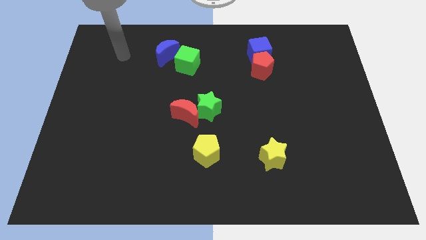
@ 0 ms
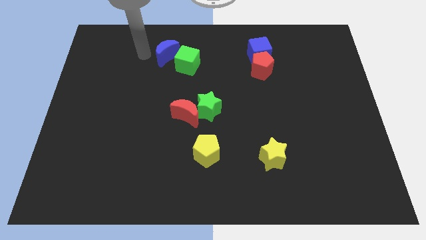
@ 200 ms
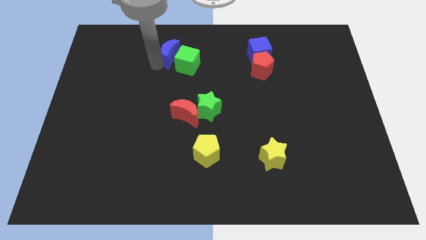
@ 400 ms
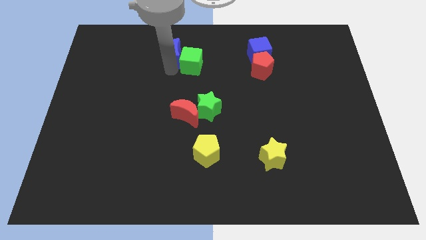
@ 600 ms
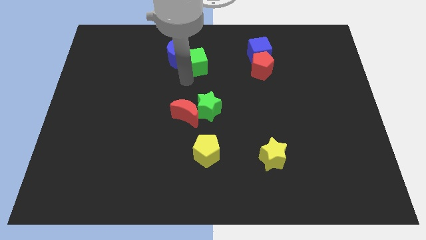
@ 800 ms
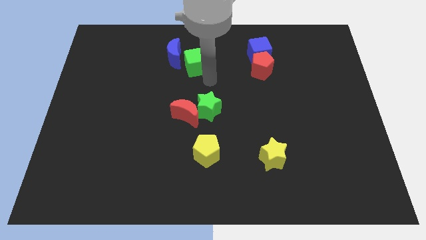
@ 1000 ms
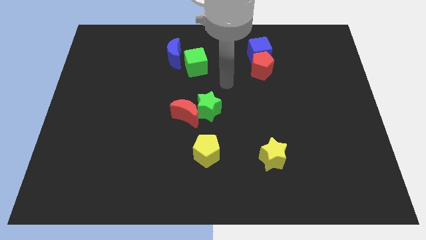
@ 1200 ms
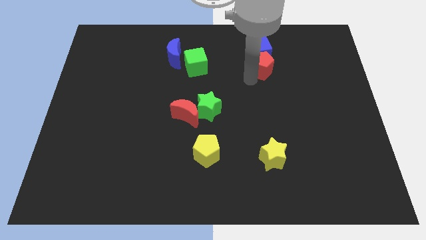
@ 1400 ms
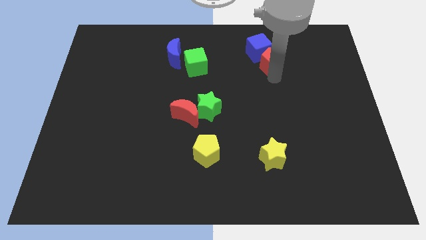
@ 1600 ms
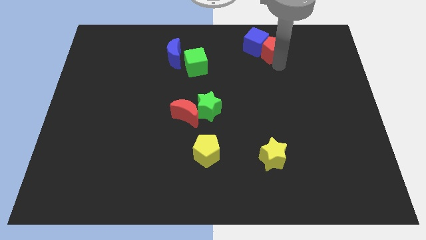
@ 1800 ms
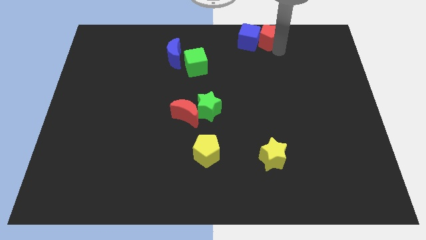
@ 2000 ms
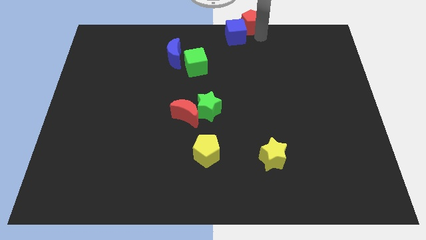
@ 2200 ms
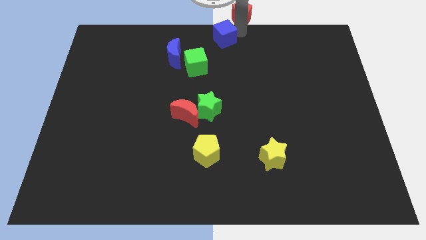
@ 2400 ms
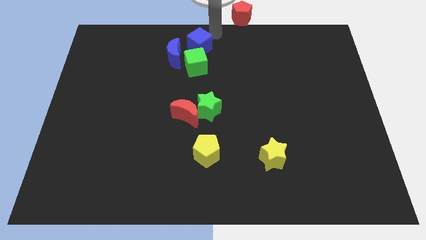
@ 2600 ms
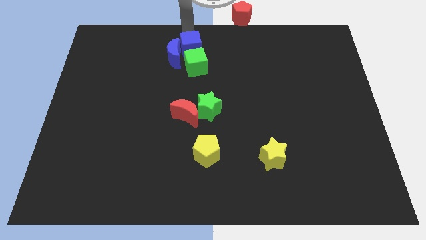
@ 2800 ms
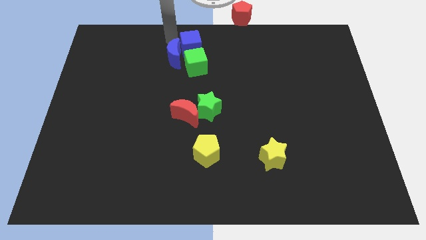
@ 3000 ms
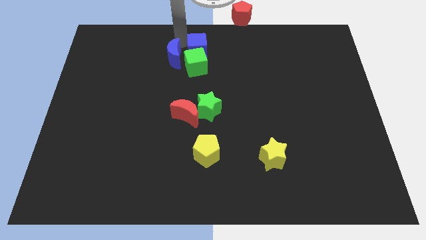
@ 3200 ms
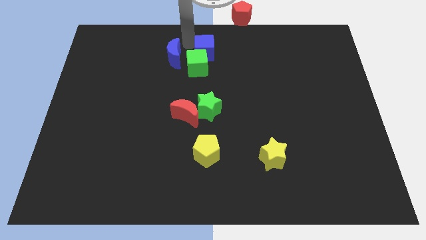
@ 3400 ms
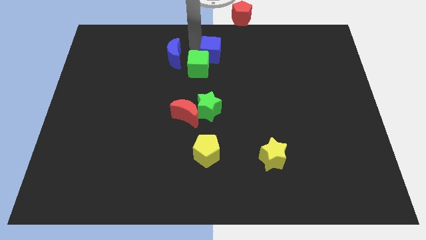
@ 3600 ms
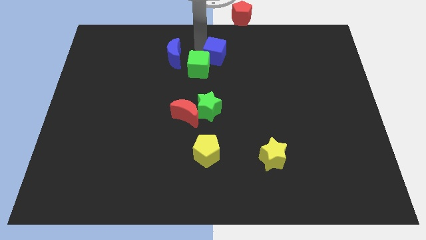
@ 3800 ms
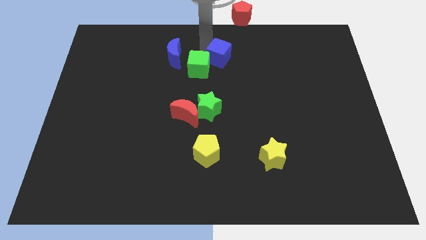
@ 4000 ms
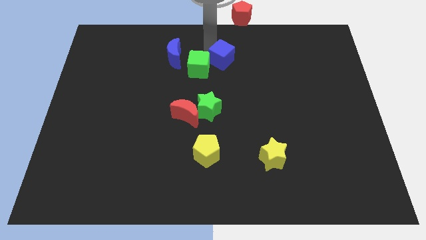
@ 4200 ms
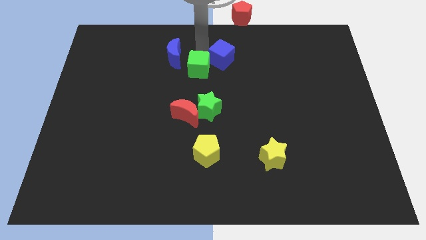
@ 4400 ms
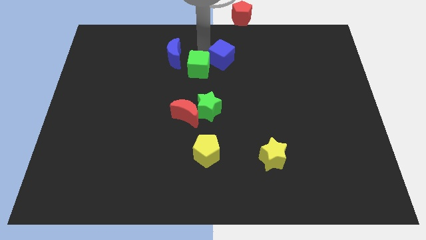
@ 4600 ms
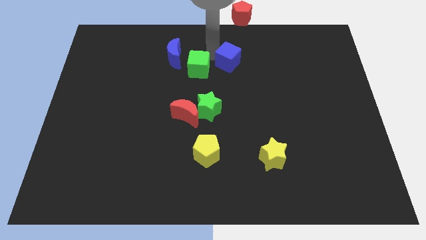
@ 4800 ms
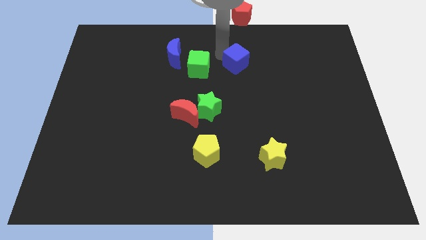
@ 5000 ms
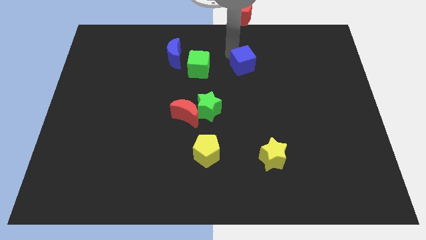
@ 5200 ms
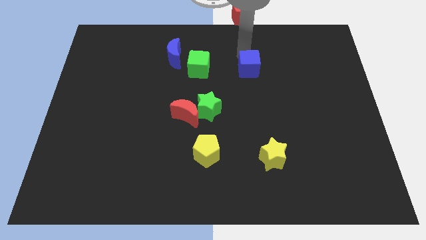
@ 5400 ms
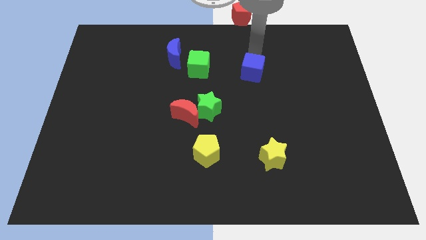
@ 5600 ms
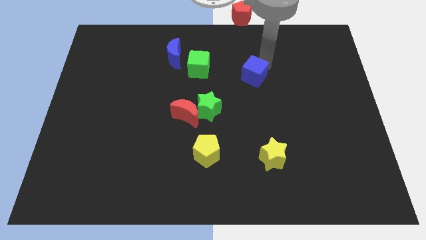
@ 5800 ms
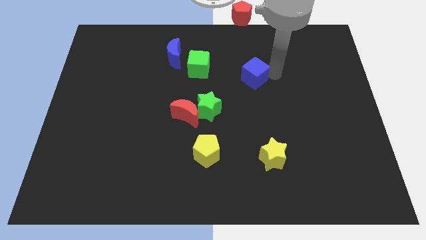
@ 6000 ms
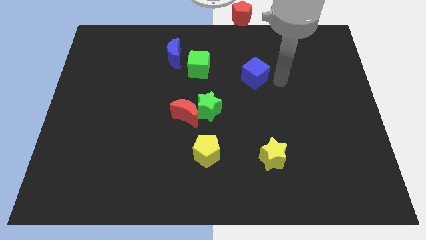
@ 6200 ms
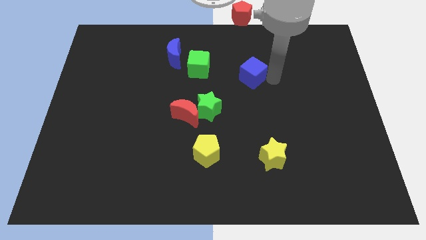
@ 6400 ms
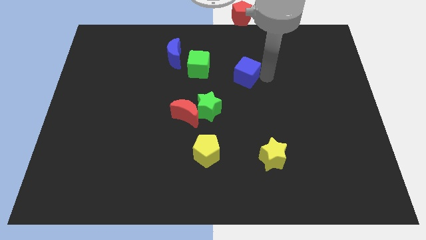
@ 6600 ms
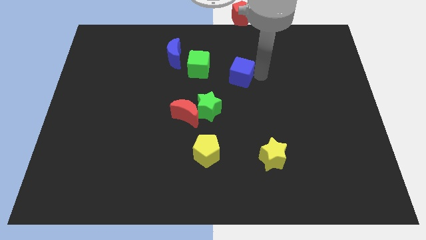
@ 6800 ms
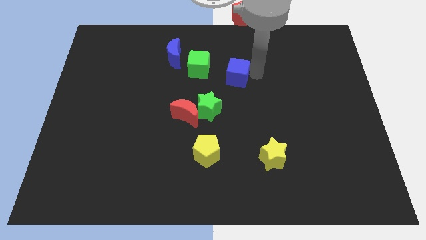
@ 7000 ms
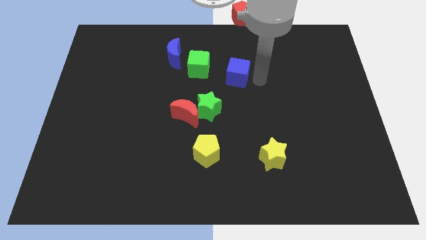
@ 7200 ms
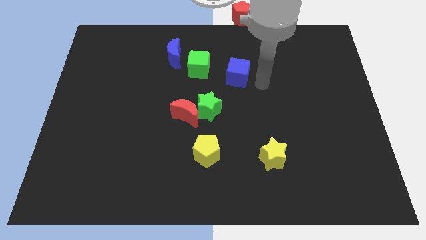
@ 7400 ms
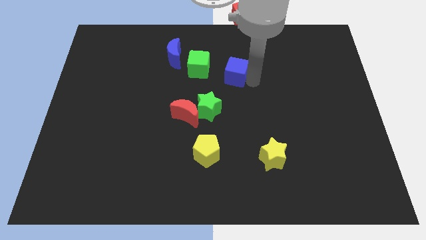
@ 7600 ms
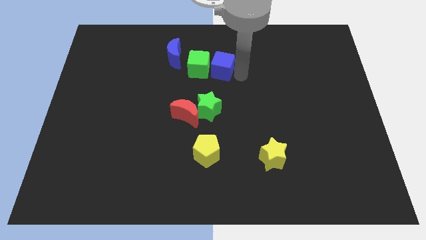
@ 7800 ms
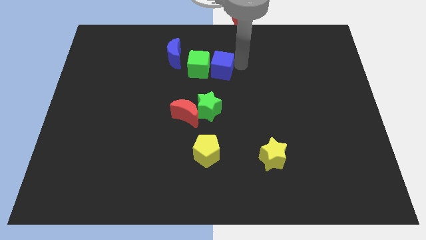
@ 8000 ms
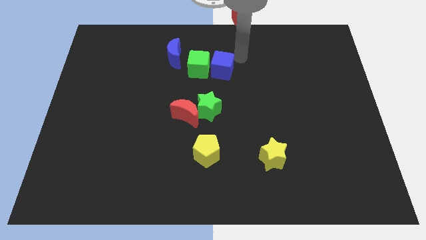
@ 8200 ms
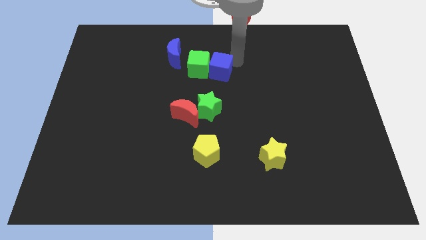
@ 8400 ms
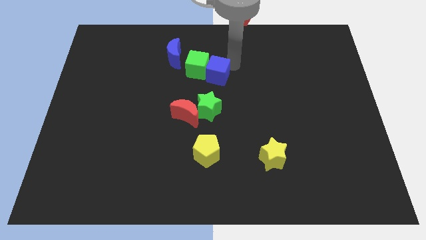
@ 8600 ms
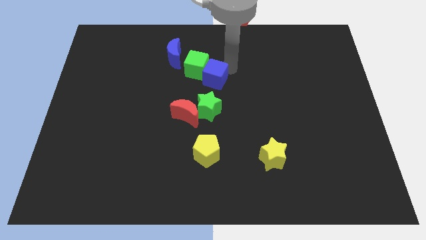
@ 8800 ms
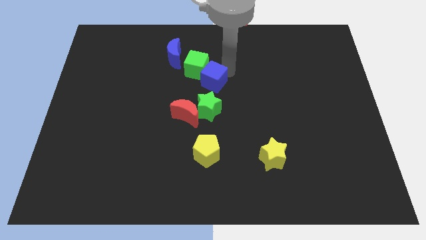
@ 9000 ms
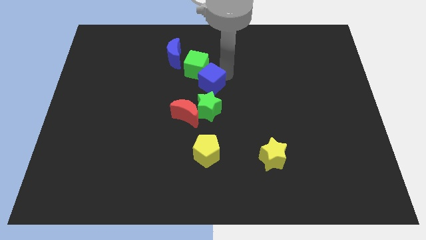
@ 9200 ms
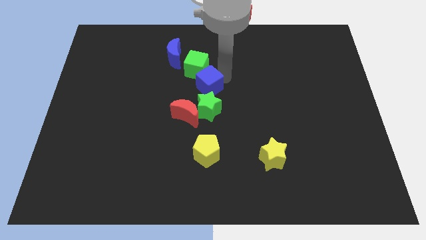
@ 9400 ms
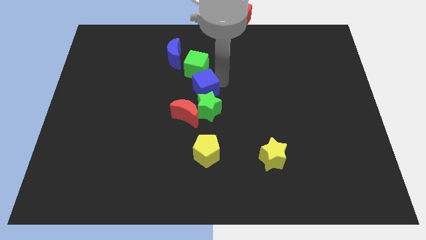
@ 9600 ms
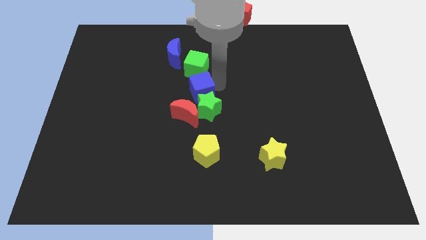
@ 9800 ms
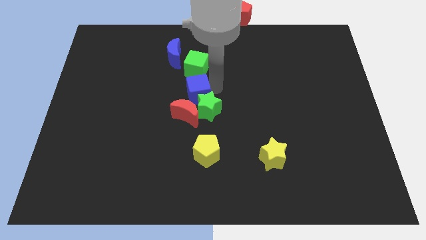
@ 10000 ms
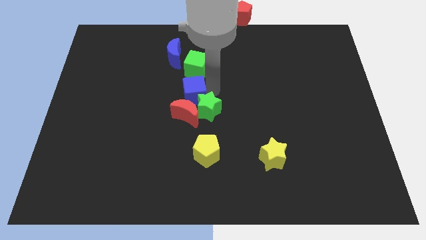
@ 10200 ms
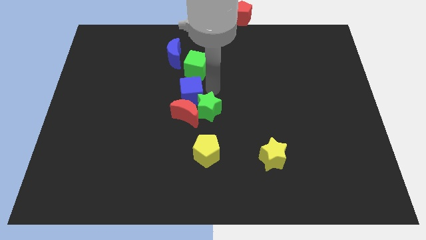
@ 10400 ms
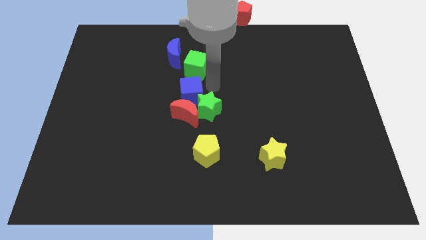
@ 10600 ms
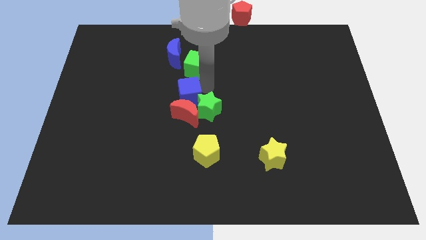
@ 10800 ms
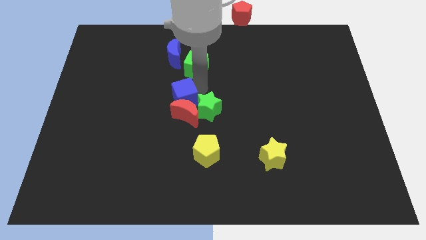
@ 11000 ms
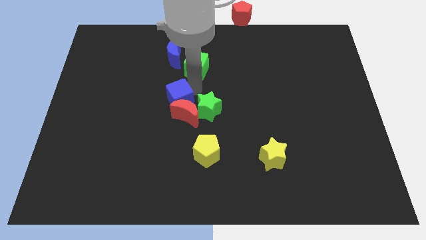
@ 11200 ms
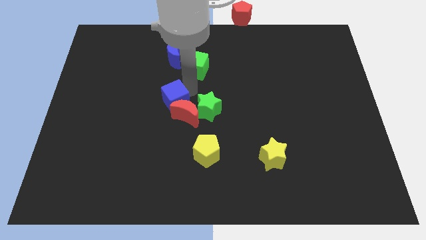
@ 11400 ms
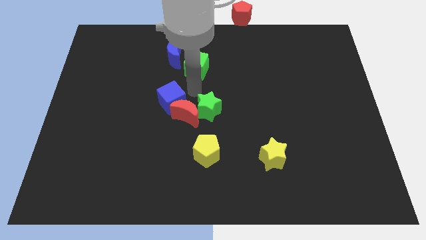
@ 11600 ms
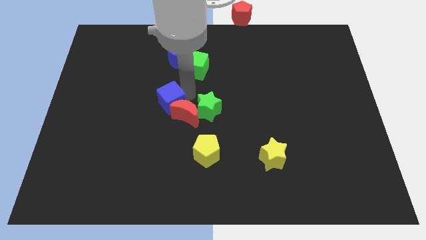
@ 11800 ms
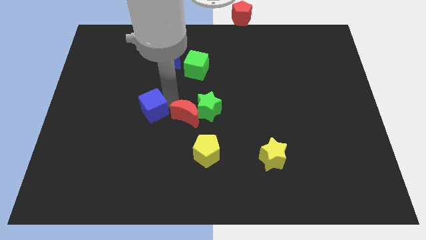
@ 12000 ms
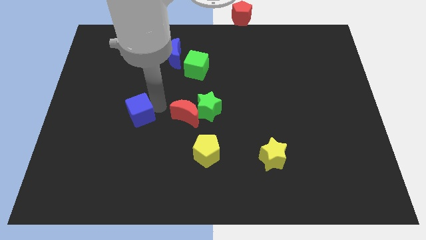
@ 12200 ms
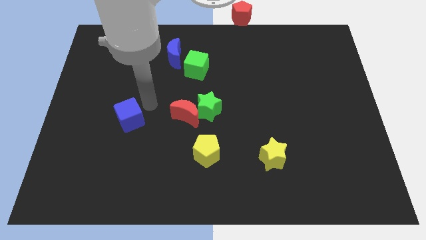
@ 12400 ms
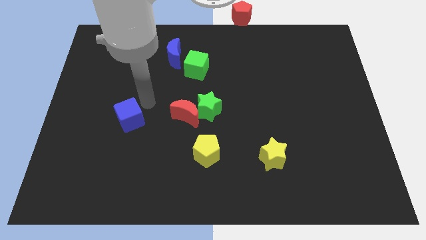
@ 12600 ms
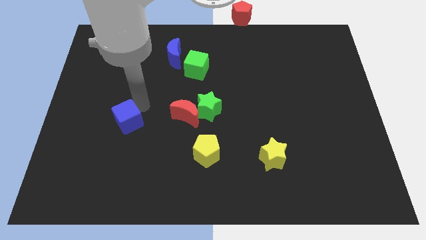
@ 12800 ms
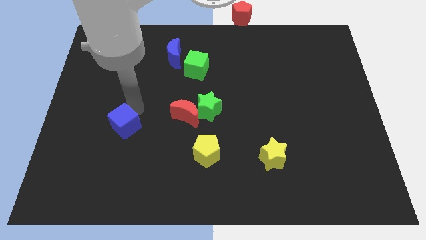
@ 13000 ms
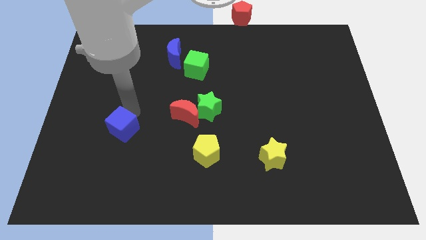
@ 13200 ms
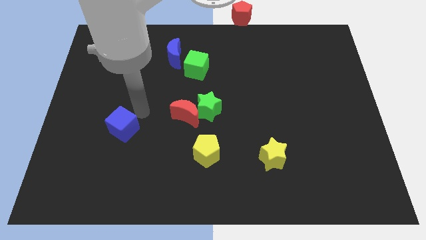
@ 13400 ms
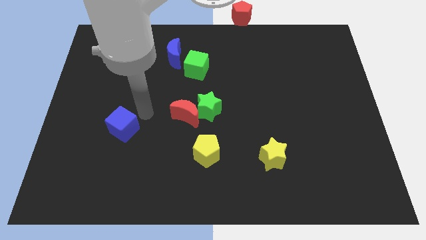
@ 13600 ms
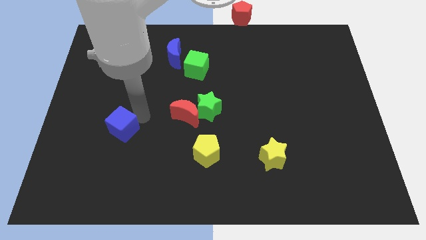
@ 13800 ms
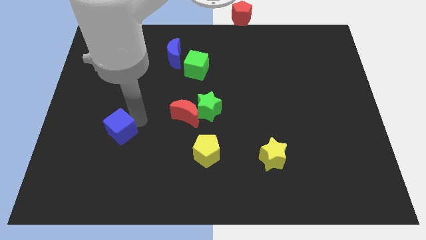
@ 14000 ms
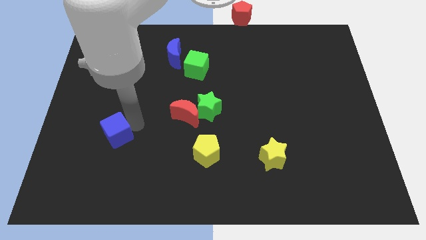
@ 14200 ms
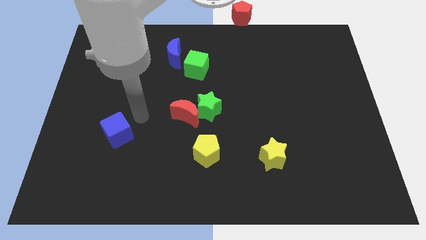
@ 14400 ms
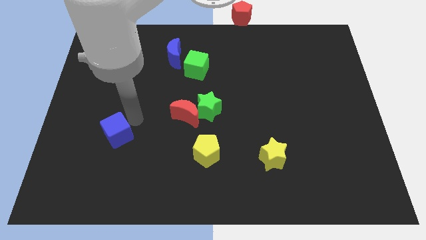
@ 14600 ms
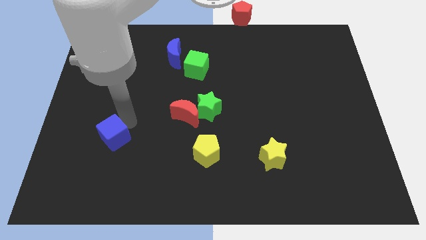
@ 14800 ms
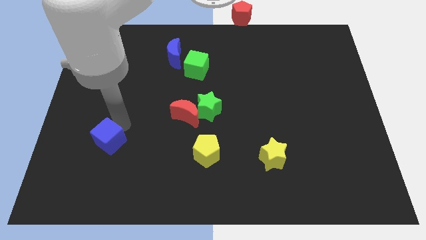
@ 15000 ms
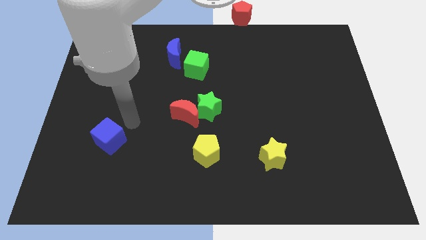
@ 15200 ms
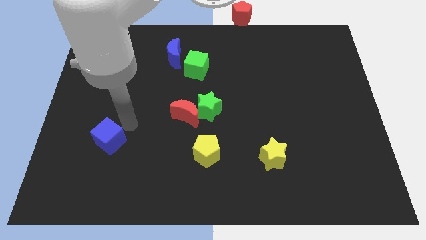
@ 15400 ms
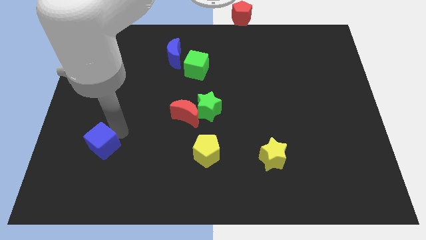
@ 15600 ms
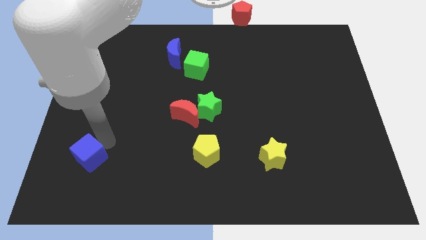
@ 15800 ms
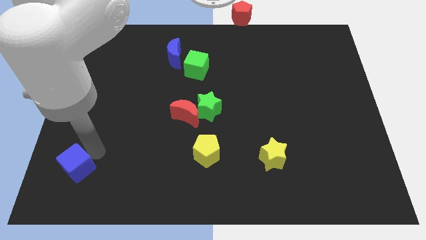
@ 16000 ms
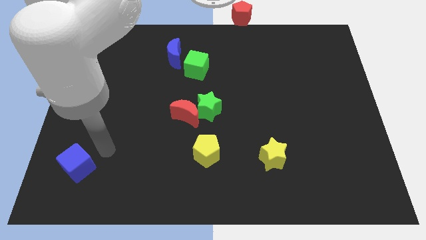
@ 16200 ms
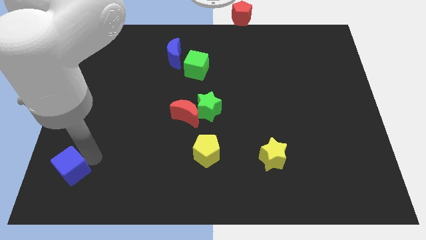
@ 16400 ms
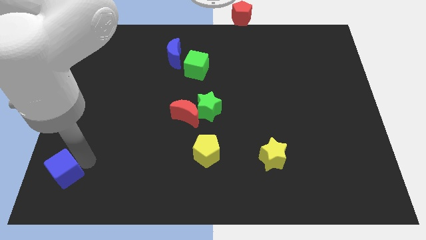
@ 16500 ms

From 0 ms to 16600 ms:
move the blue cube to the bottom left of the board
